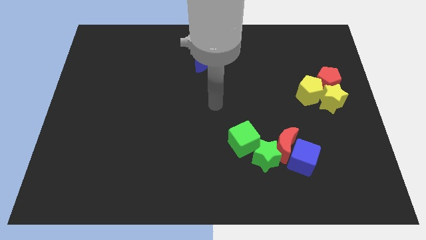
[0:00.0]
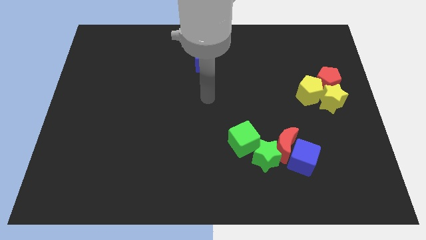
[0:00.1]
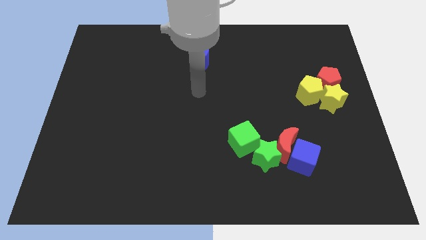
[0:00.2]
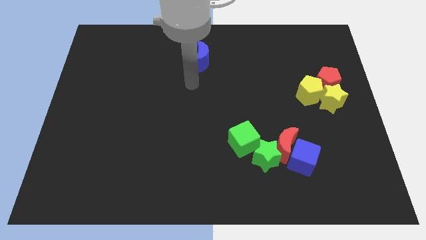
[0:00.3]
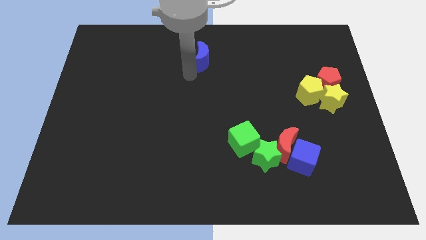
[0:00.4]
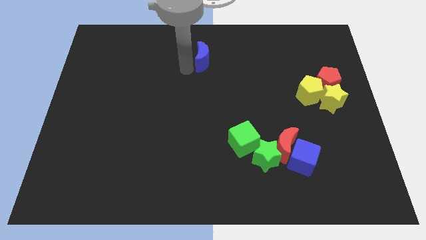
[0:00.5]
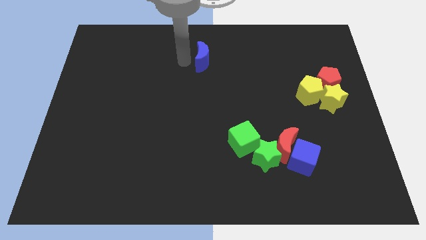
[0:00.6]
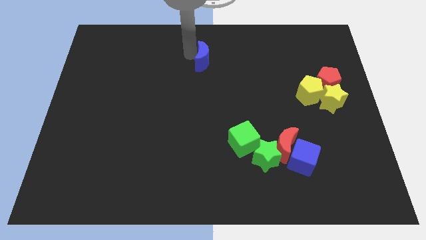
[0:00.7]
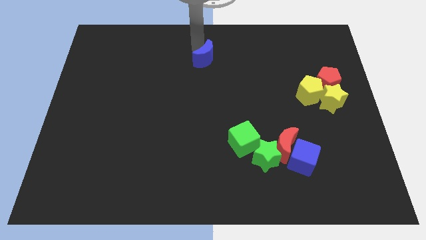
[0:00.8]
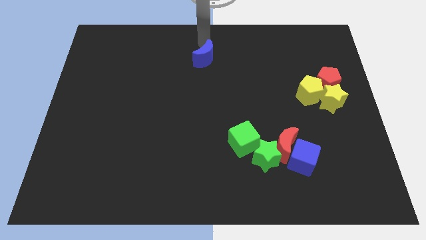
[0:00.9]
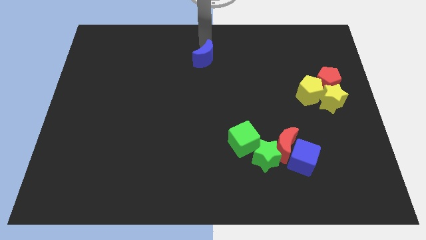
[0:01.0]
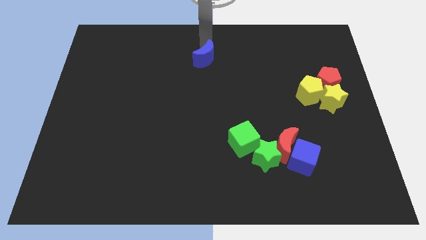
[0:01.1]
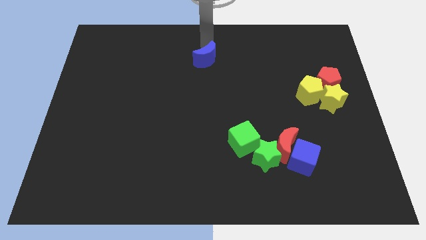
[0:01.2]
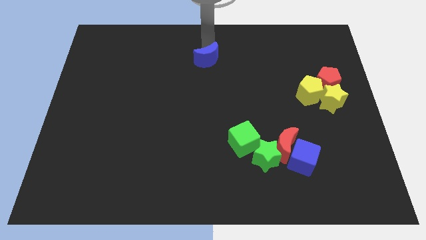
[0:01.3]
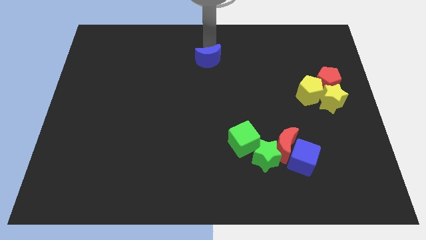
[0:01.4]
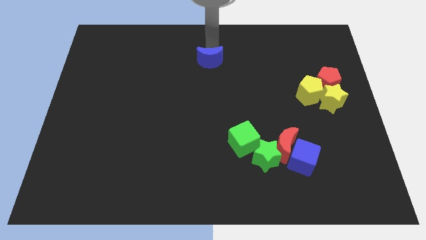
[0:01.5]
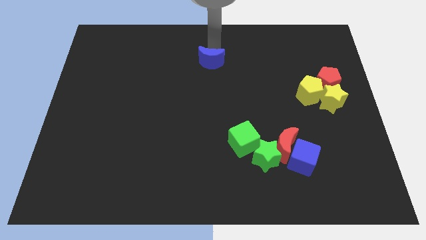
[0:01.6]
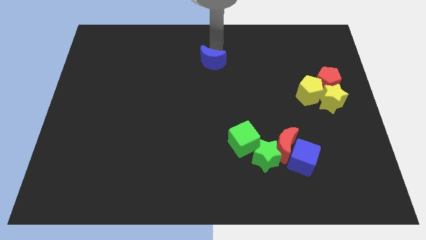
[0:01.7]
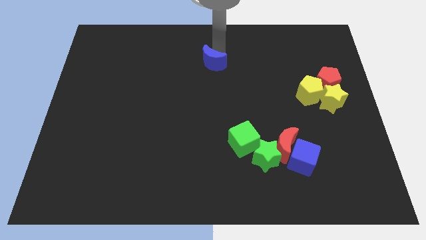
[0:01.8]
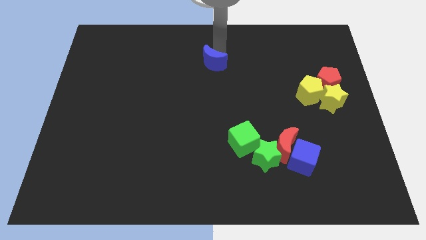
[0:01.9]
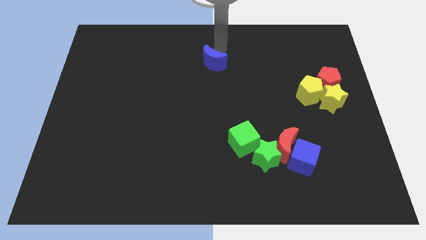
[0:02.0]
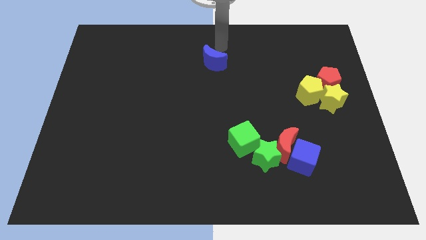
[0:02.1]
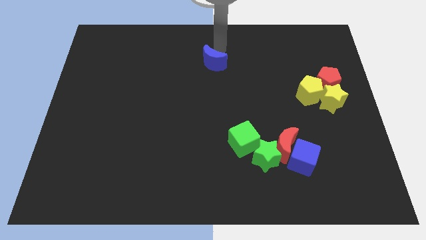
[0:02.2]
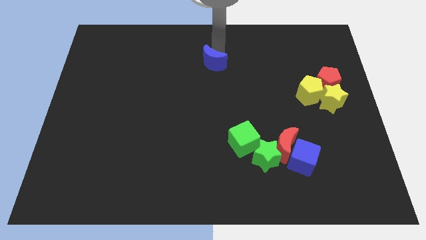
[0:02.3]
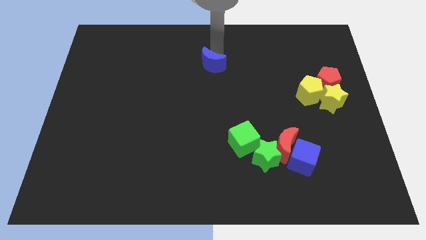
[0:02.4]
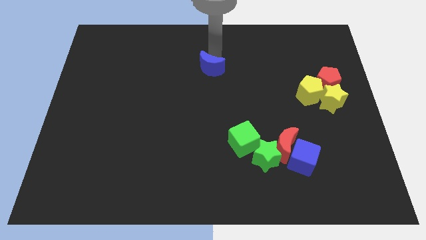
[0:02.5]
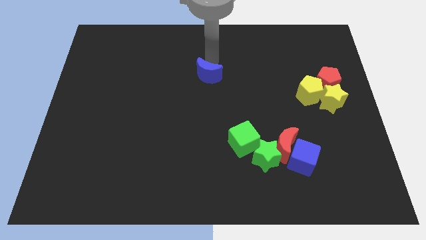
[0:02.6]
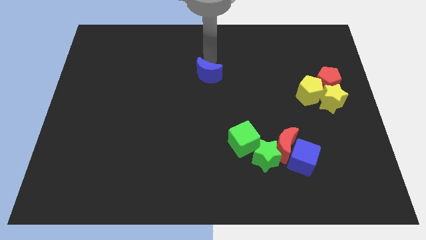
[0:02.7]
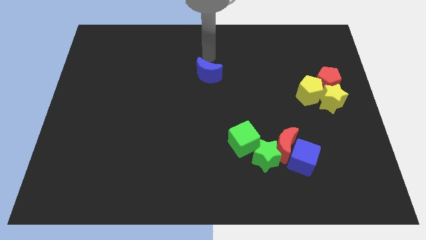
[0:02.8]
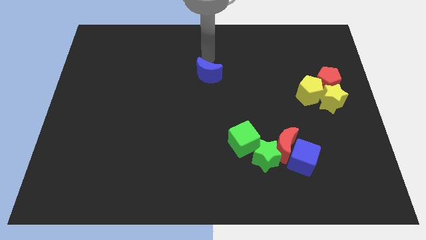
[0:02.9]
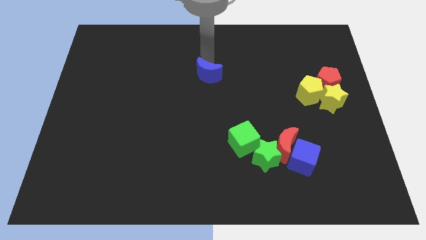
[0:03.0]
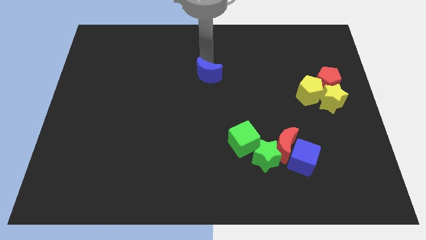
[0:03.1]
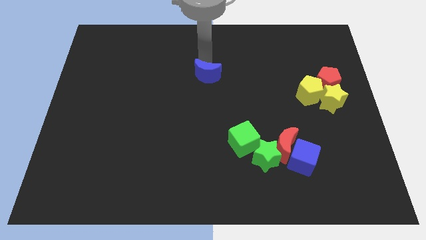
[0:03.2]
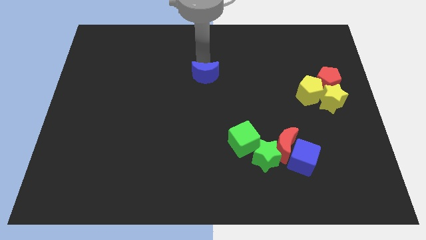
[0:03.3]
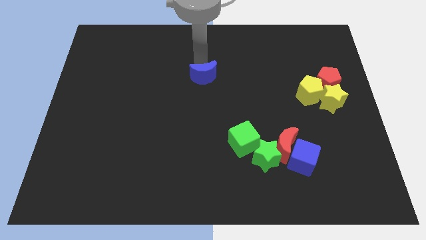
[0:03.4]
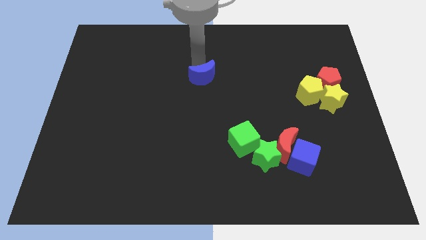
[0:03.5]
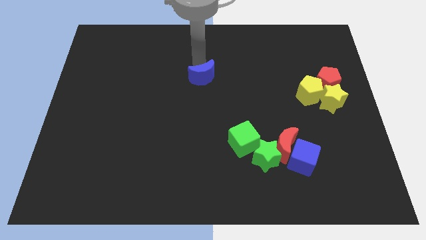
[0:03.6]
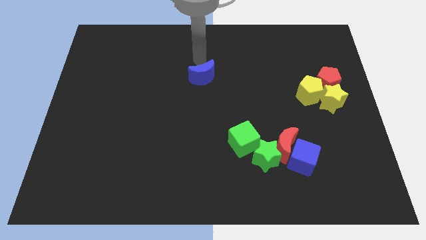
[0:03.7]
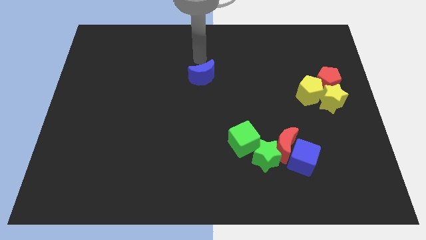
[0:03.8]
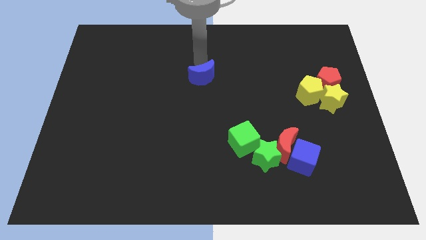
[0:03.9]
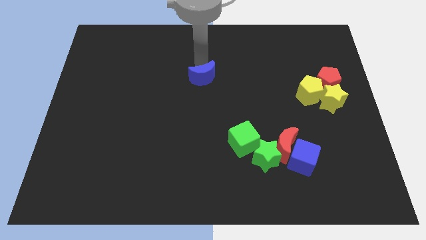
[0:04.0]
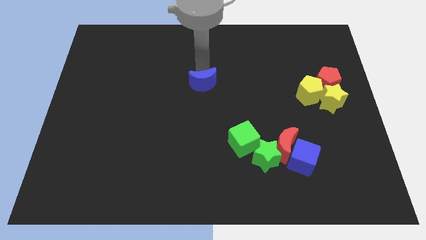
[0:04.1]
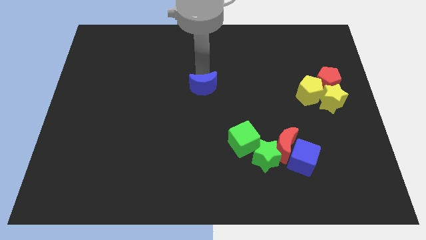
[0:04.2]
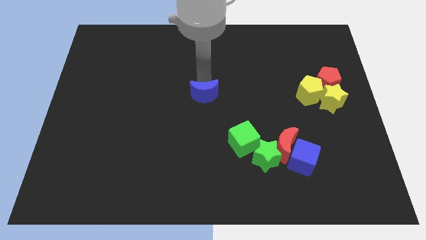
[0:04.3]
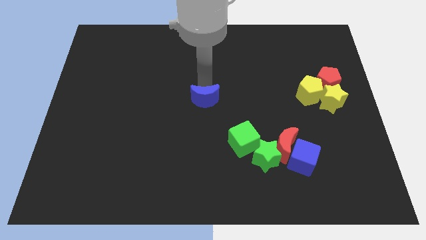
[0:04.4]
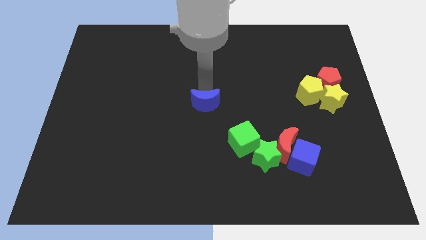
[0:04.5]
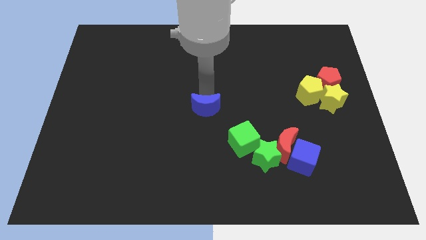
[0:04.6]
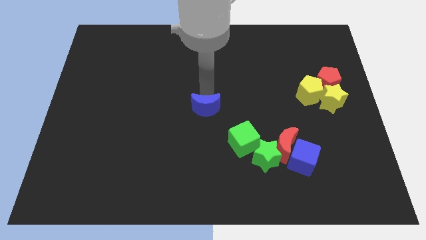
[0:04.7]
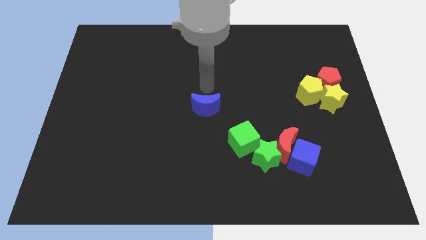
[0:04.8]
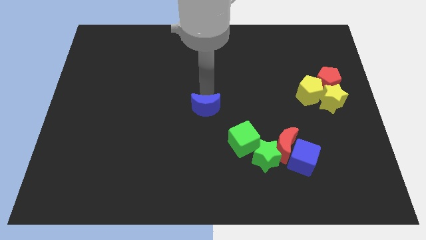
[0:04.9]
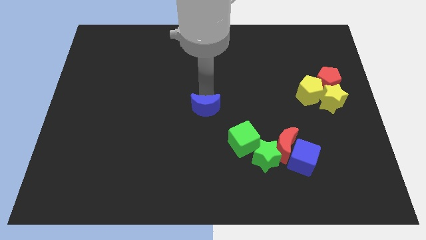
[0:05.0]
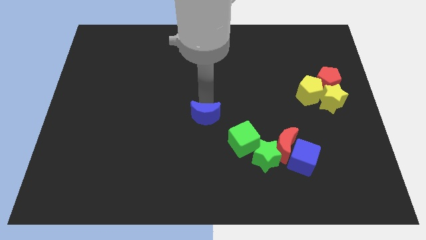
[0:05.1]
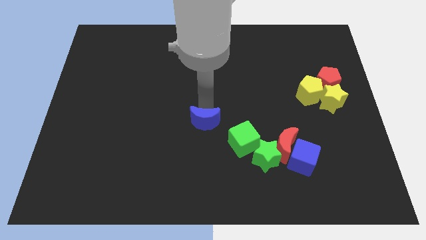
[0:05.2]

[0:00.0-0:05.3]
push the blue moon downwards

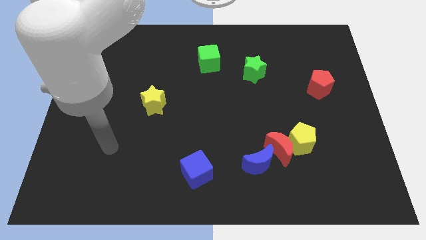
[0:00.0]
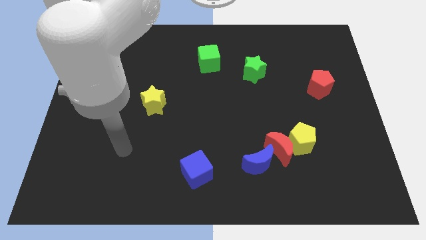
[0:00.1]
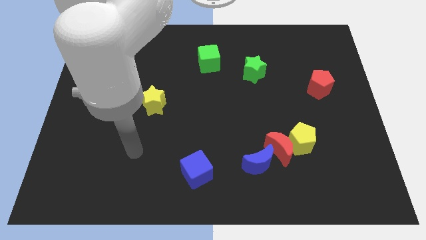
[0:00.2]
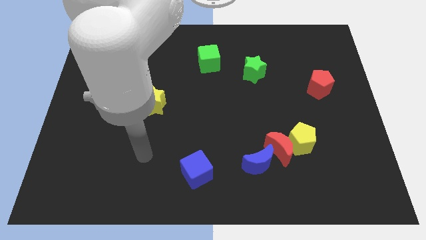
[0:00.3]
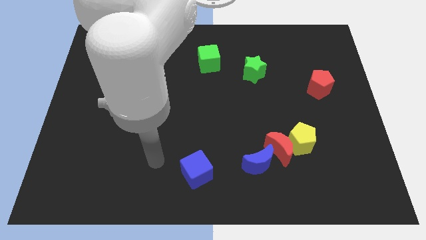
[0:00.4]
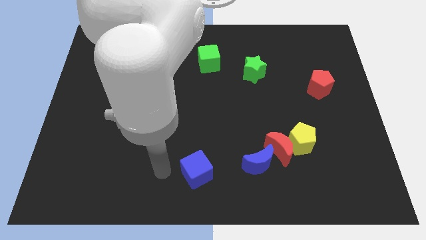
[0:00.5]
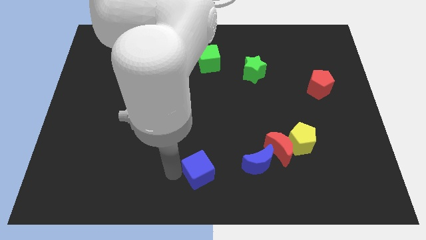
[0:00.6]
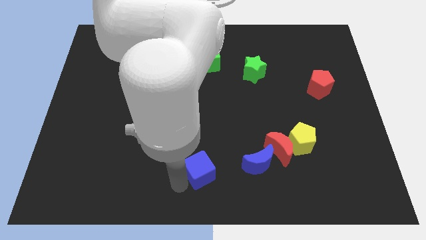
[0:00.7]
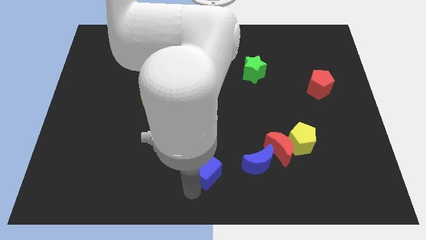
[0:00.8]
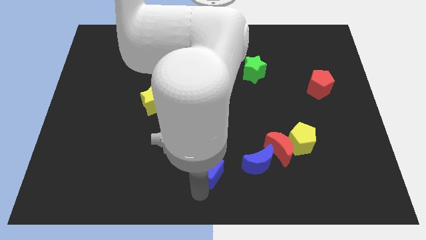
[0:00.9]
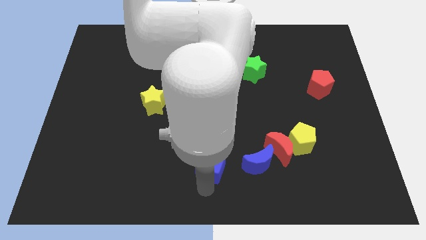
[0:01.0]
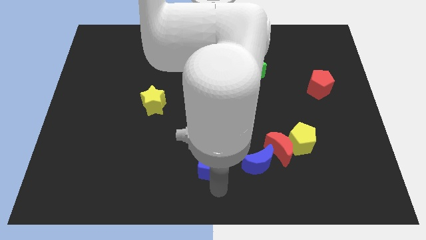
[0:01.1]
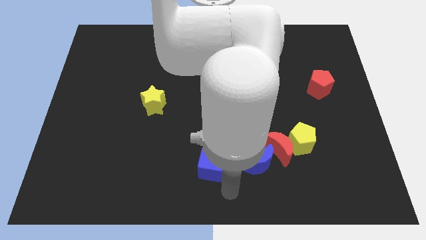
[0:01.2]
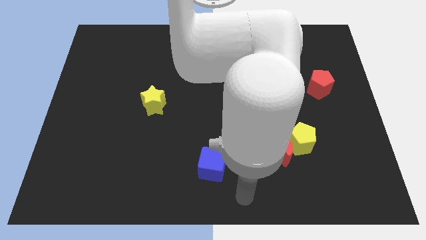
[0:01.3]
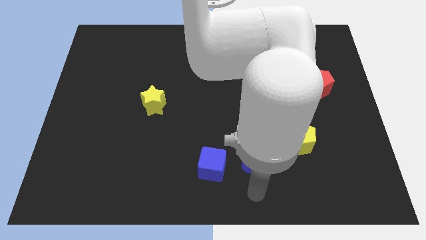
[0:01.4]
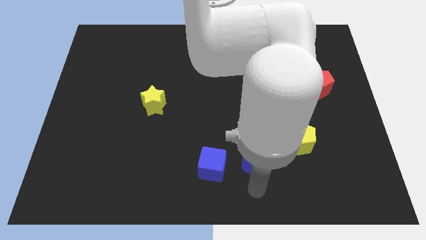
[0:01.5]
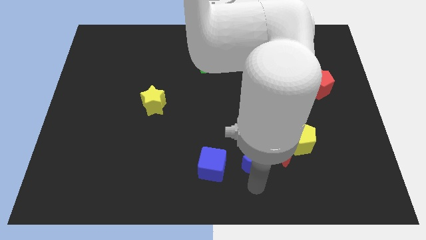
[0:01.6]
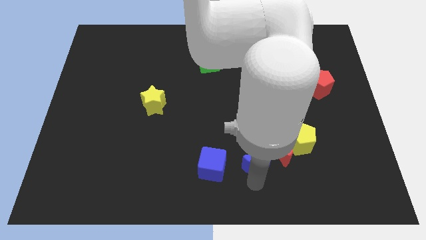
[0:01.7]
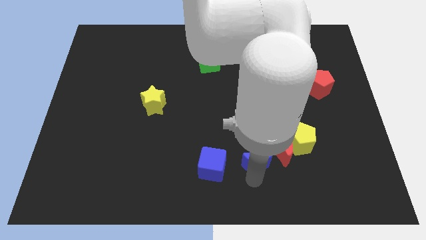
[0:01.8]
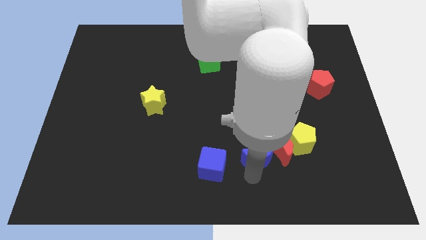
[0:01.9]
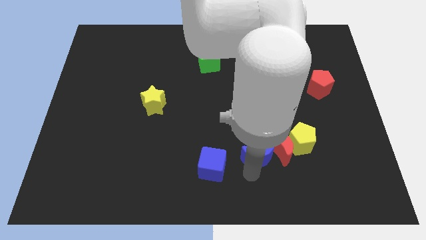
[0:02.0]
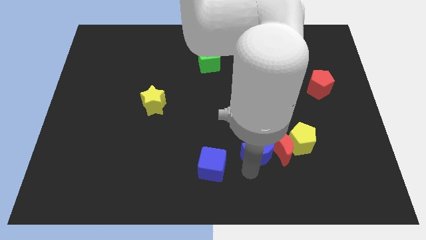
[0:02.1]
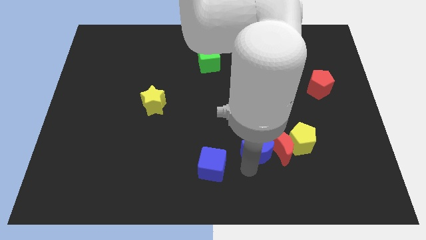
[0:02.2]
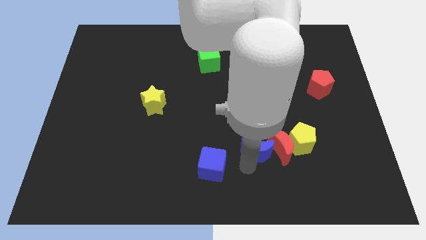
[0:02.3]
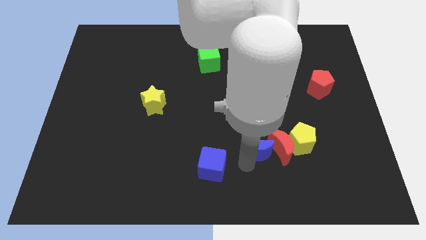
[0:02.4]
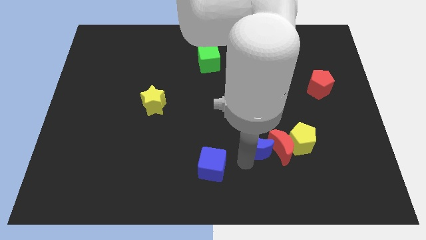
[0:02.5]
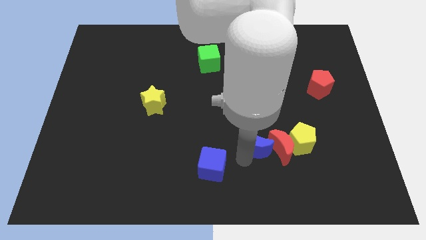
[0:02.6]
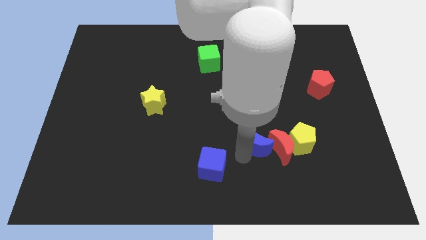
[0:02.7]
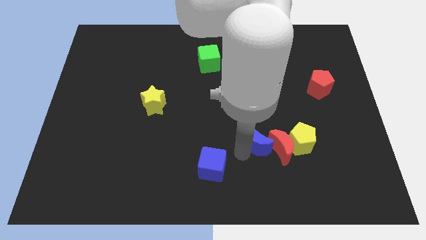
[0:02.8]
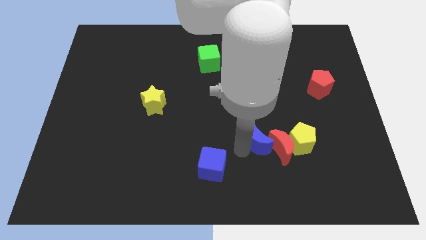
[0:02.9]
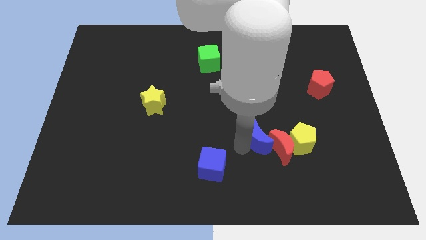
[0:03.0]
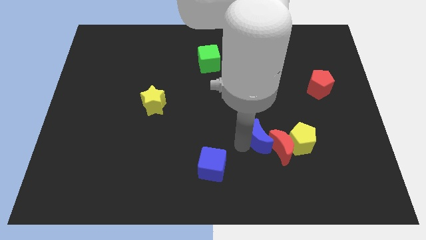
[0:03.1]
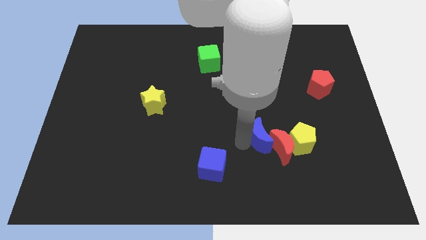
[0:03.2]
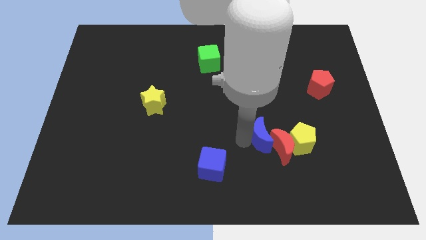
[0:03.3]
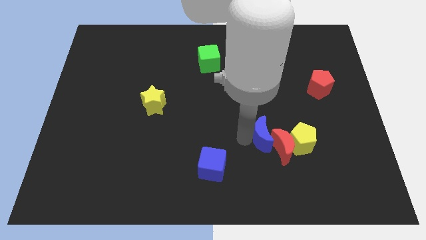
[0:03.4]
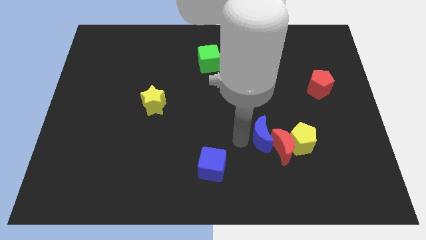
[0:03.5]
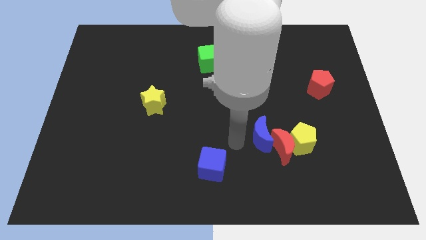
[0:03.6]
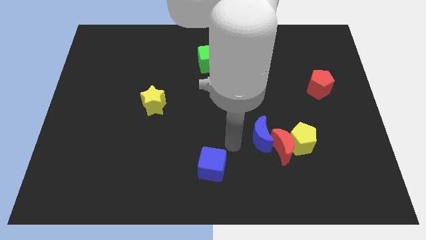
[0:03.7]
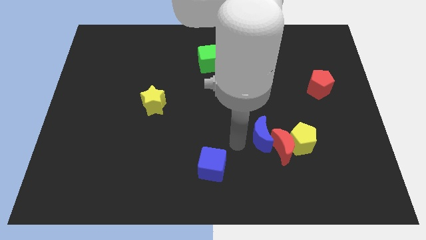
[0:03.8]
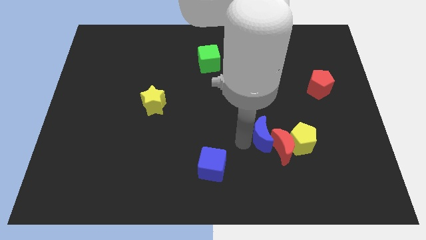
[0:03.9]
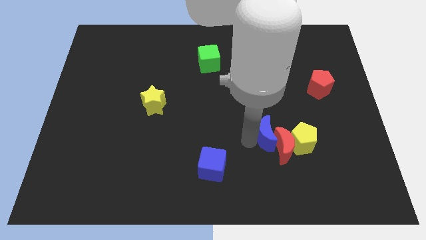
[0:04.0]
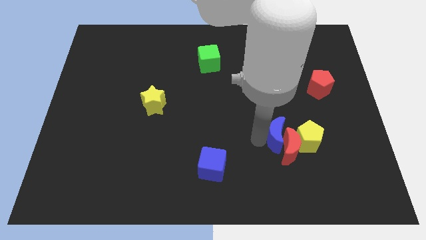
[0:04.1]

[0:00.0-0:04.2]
slide the blue moon upwards and then right a little
